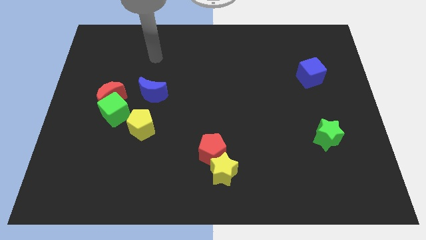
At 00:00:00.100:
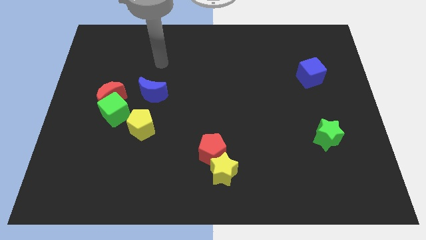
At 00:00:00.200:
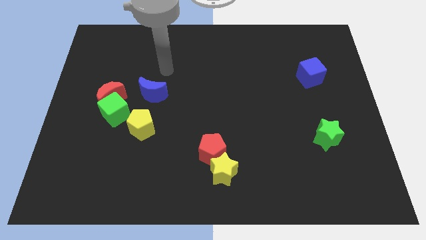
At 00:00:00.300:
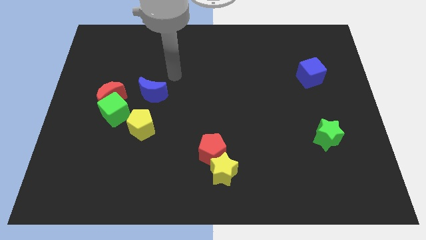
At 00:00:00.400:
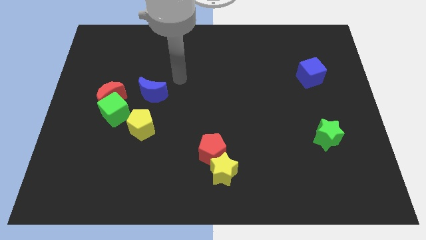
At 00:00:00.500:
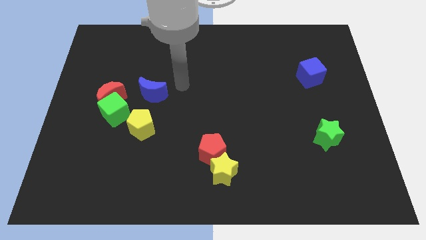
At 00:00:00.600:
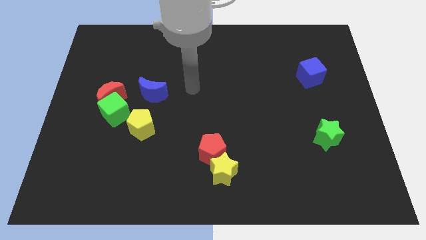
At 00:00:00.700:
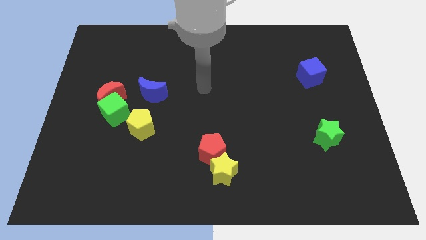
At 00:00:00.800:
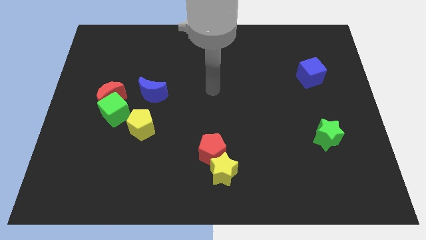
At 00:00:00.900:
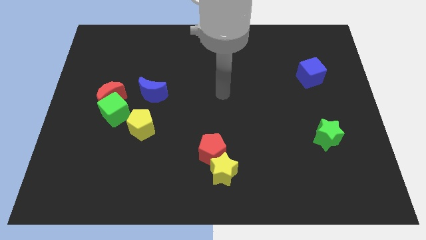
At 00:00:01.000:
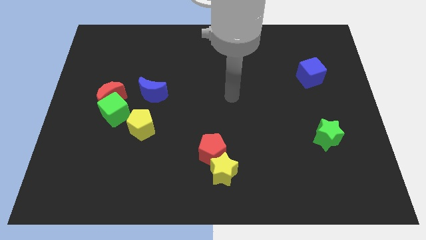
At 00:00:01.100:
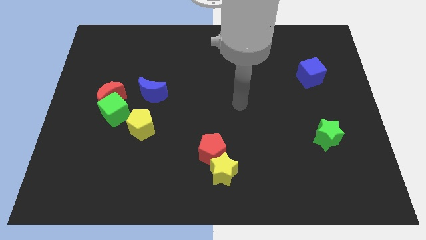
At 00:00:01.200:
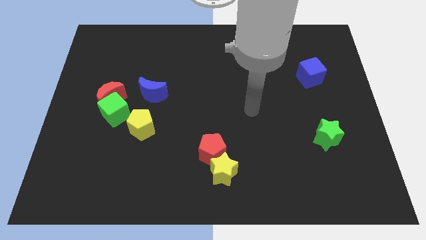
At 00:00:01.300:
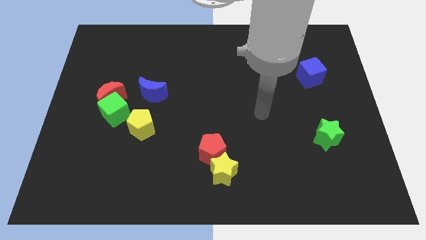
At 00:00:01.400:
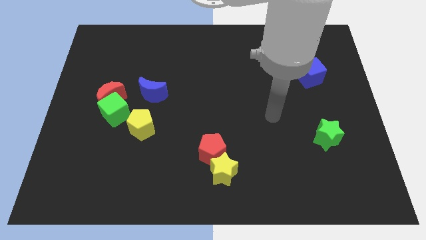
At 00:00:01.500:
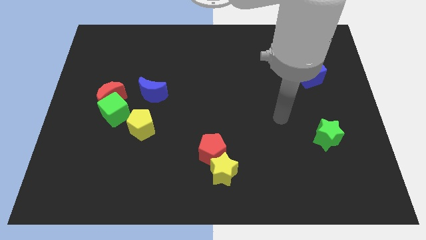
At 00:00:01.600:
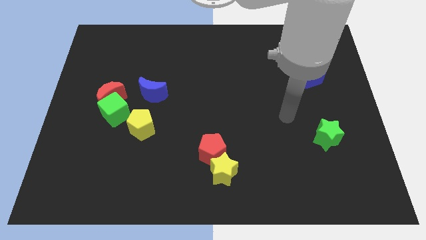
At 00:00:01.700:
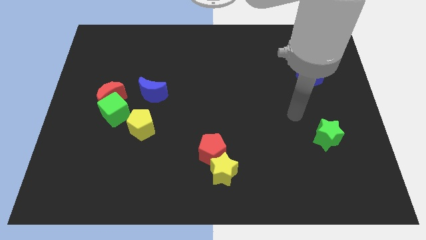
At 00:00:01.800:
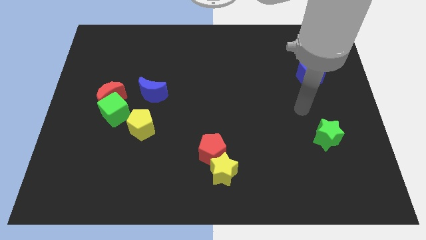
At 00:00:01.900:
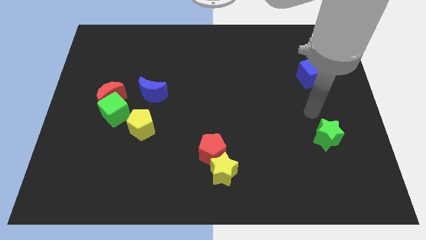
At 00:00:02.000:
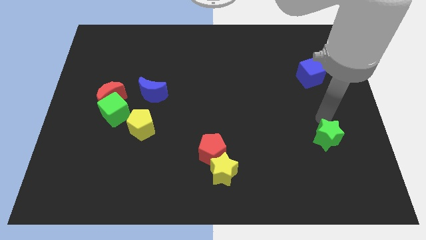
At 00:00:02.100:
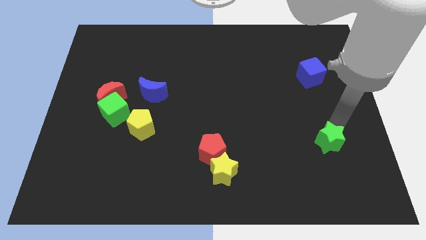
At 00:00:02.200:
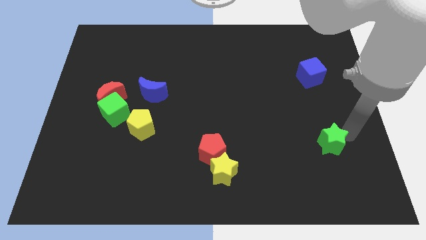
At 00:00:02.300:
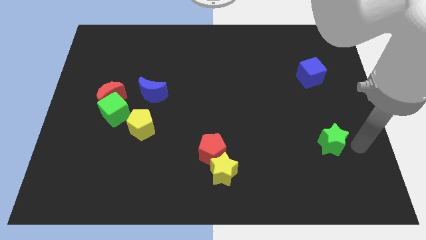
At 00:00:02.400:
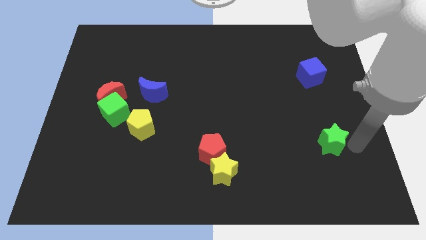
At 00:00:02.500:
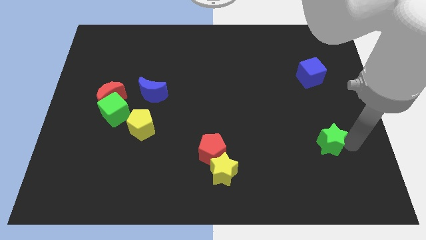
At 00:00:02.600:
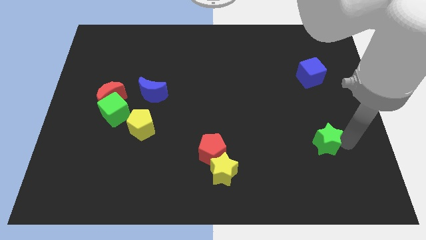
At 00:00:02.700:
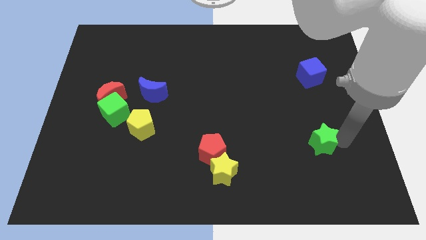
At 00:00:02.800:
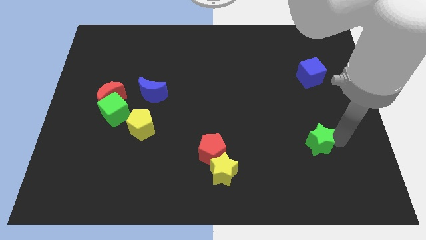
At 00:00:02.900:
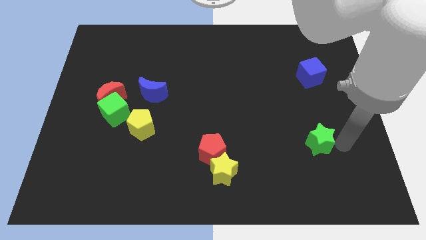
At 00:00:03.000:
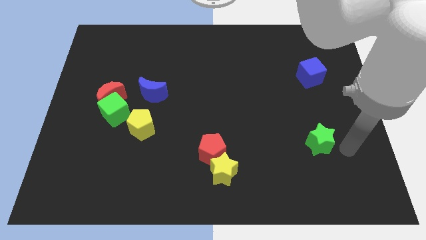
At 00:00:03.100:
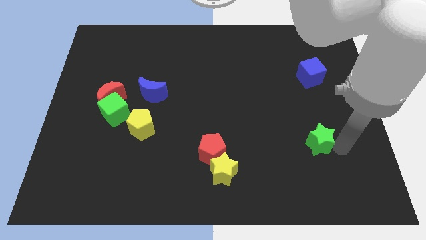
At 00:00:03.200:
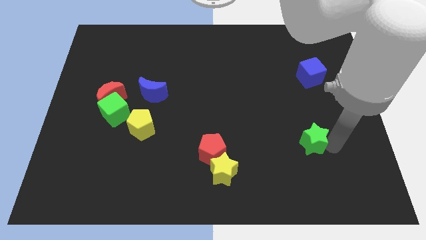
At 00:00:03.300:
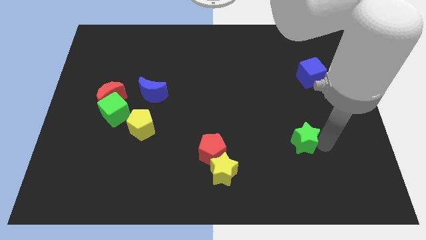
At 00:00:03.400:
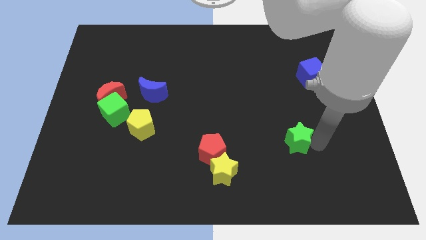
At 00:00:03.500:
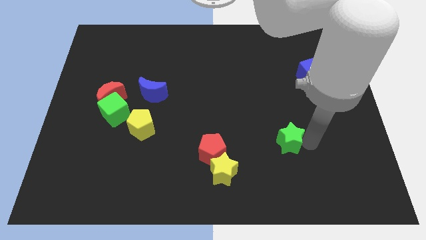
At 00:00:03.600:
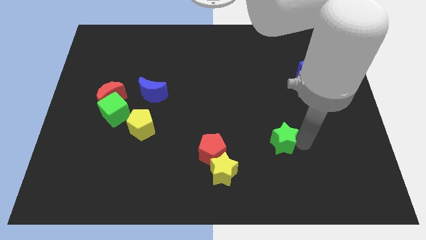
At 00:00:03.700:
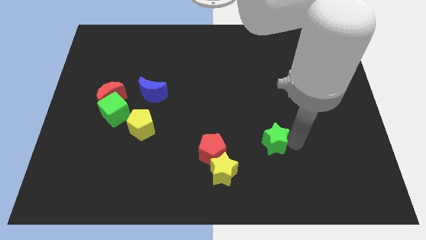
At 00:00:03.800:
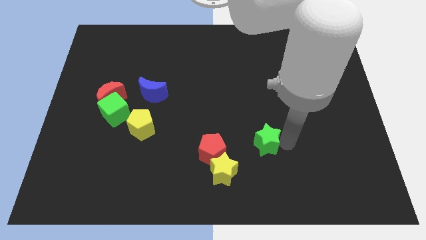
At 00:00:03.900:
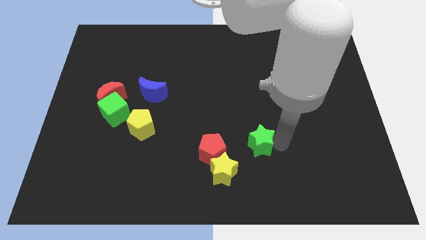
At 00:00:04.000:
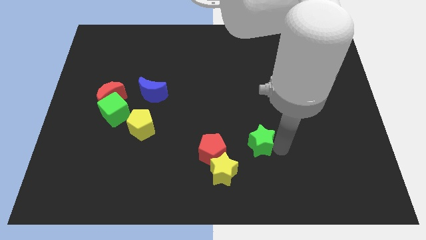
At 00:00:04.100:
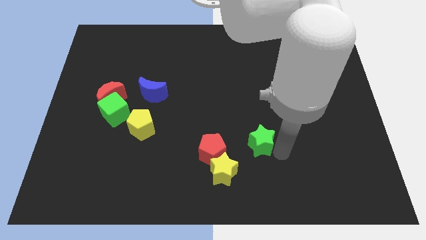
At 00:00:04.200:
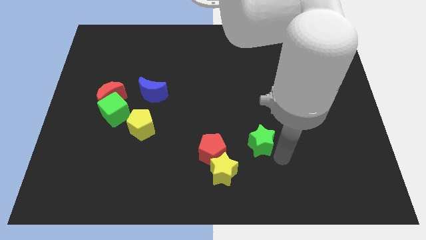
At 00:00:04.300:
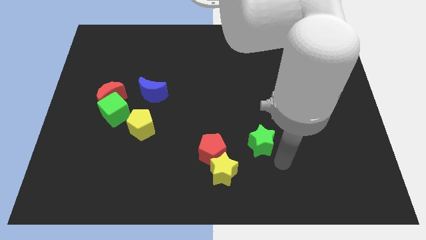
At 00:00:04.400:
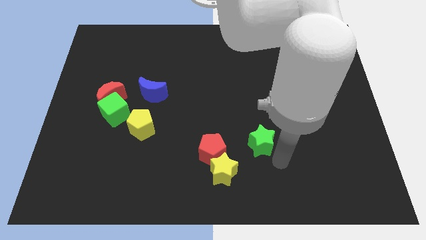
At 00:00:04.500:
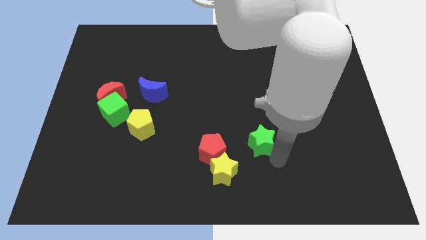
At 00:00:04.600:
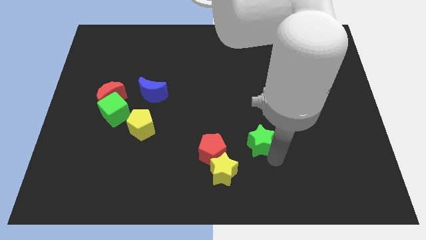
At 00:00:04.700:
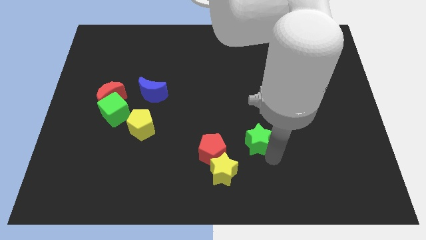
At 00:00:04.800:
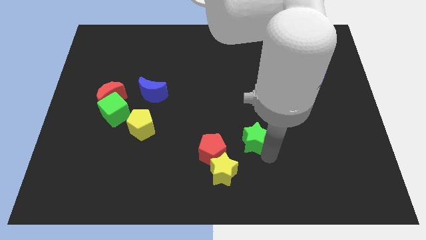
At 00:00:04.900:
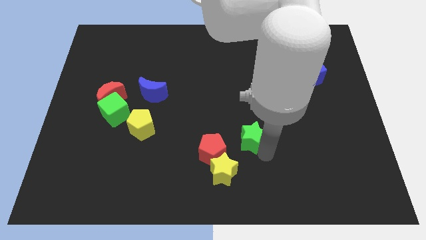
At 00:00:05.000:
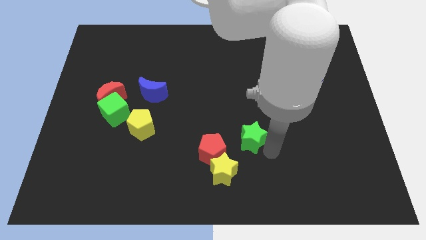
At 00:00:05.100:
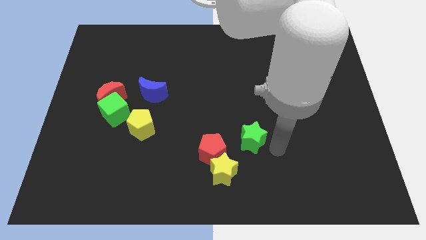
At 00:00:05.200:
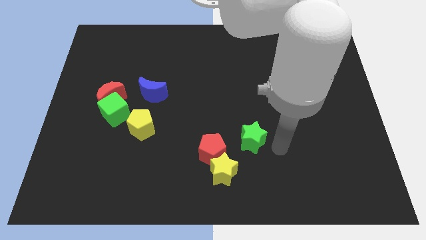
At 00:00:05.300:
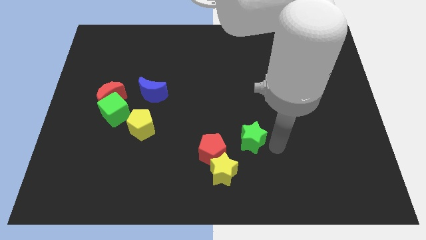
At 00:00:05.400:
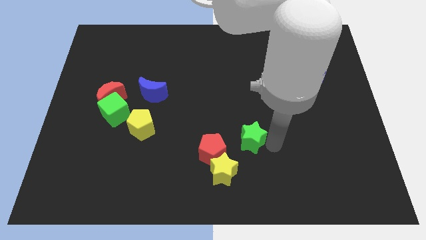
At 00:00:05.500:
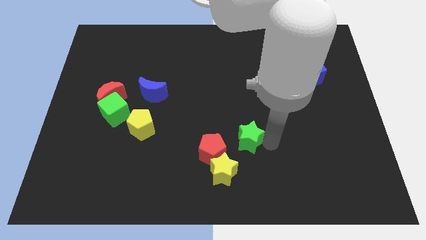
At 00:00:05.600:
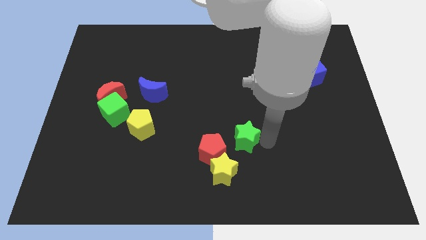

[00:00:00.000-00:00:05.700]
move the green star to the top side of the yellow star

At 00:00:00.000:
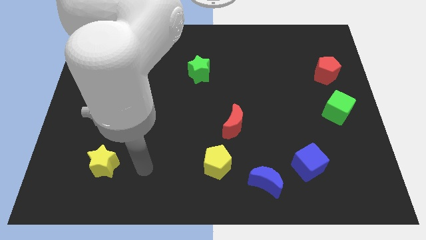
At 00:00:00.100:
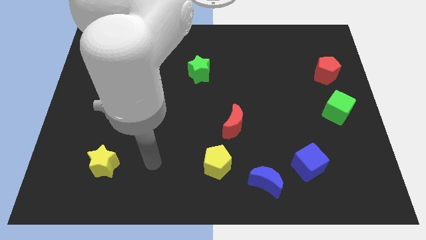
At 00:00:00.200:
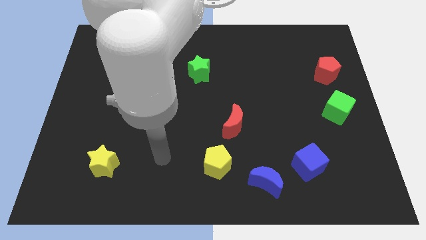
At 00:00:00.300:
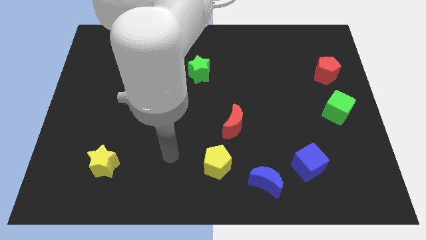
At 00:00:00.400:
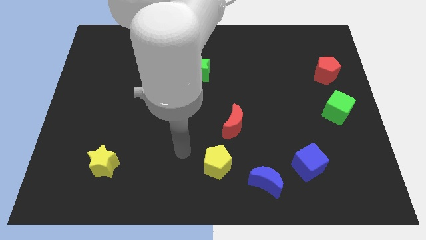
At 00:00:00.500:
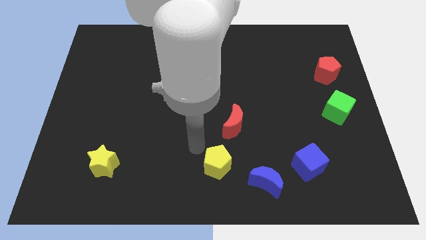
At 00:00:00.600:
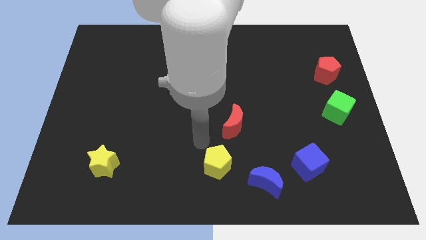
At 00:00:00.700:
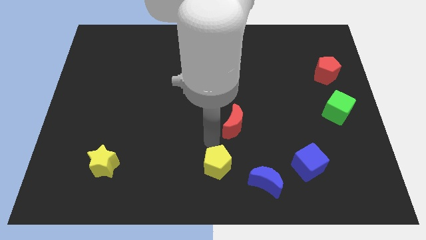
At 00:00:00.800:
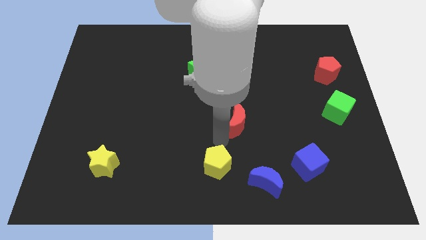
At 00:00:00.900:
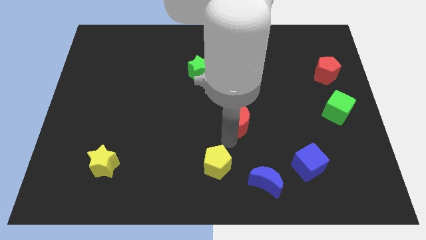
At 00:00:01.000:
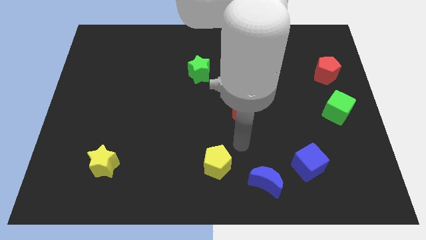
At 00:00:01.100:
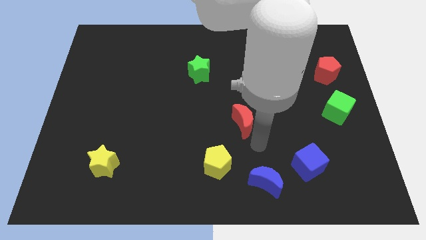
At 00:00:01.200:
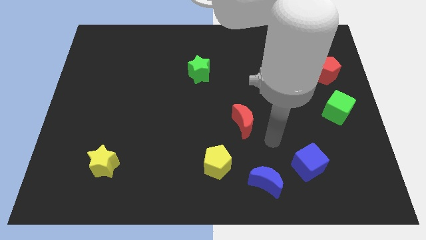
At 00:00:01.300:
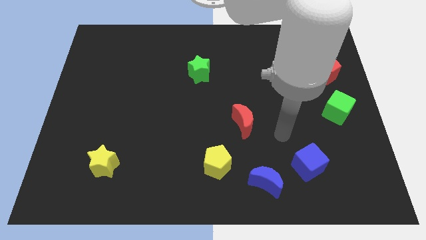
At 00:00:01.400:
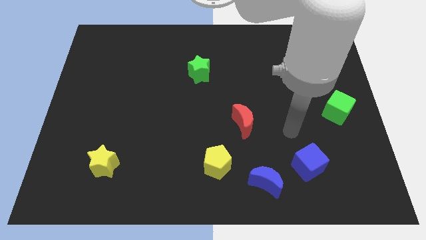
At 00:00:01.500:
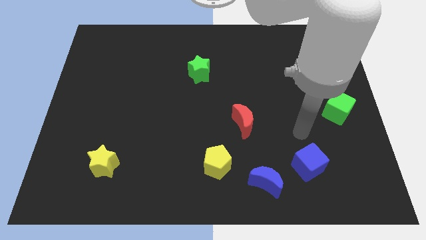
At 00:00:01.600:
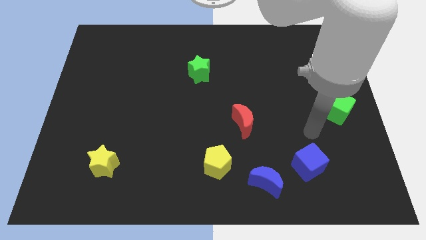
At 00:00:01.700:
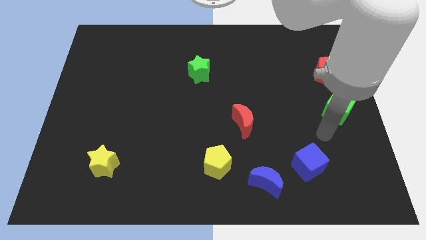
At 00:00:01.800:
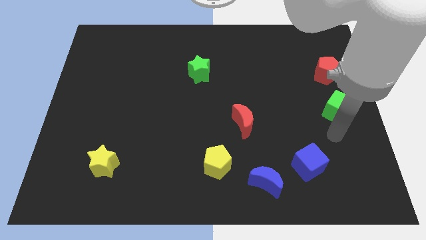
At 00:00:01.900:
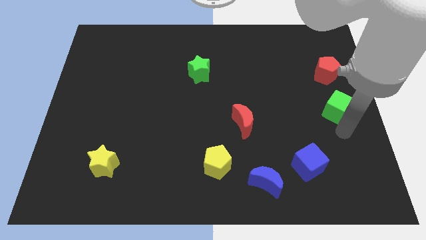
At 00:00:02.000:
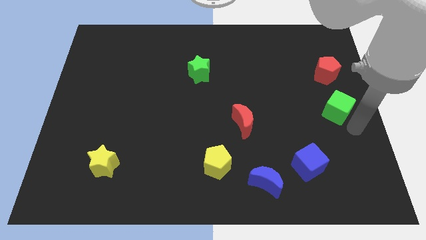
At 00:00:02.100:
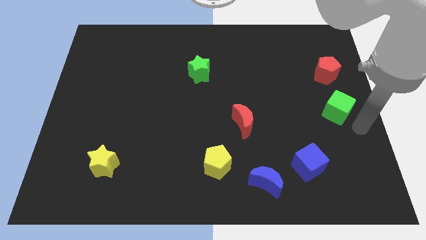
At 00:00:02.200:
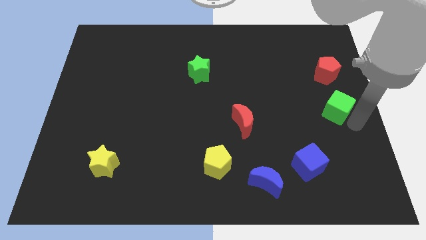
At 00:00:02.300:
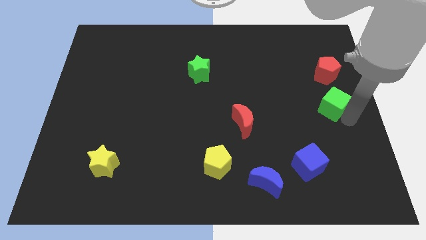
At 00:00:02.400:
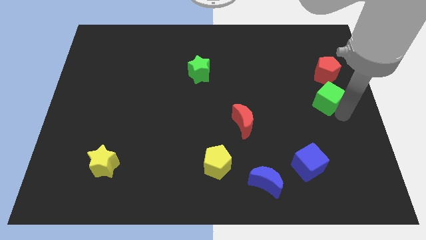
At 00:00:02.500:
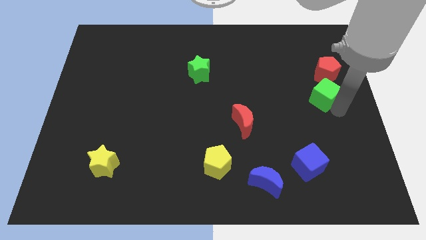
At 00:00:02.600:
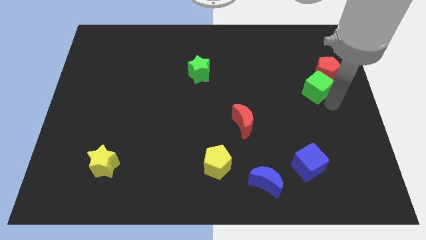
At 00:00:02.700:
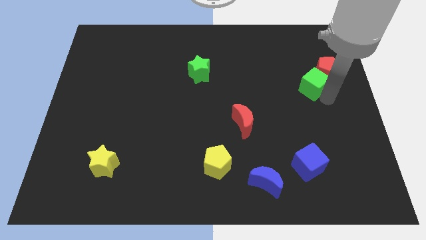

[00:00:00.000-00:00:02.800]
slide the green cube to the left side of the red pentagon
